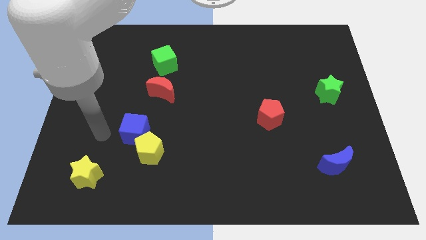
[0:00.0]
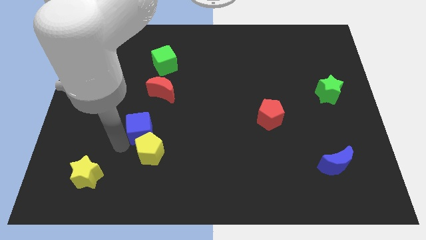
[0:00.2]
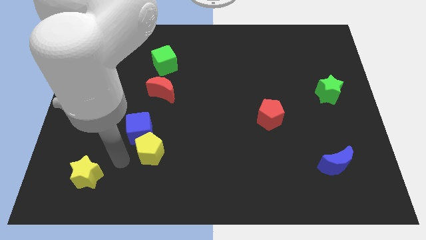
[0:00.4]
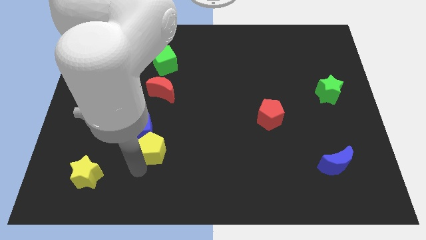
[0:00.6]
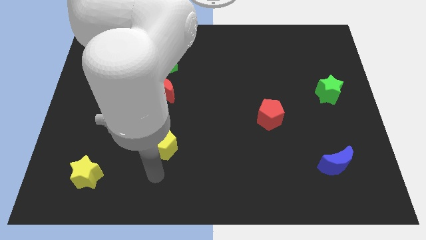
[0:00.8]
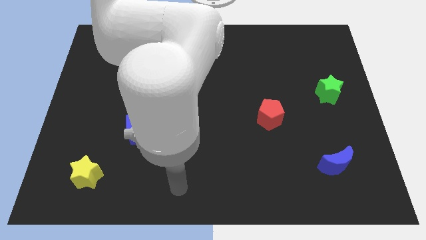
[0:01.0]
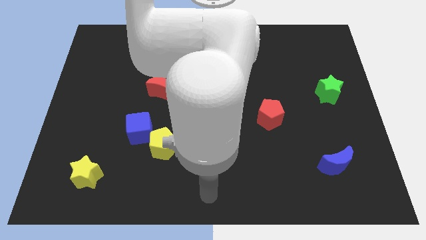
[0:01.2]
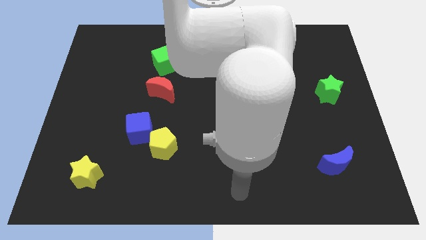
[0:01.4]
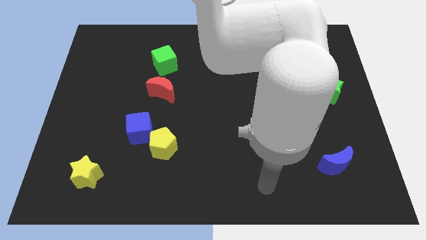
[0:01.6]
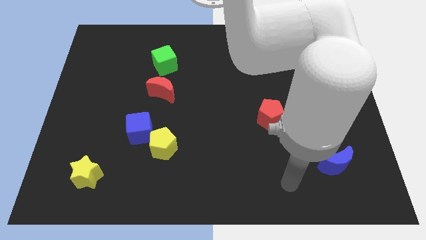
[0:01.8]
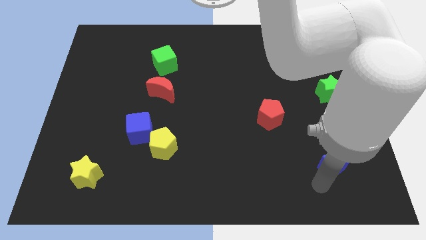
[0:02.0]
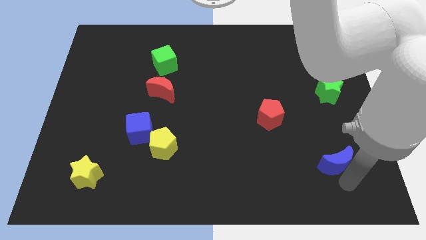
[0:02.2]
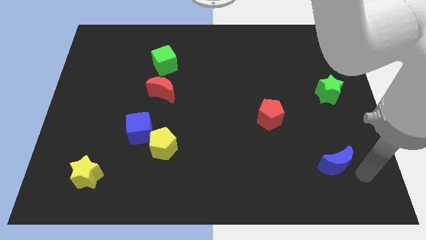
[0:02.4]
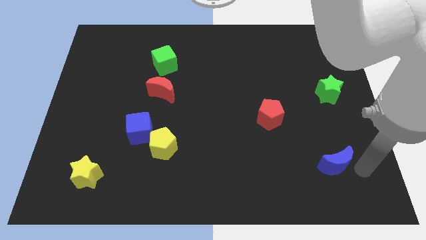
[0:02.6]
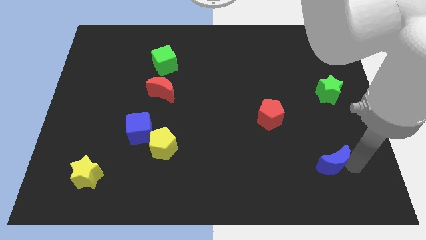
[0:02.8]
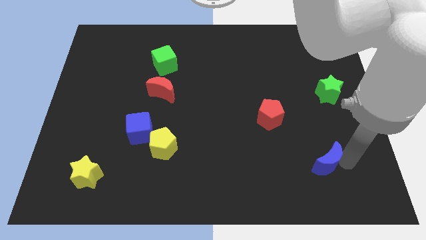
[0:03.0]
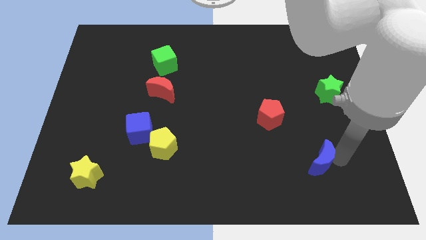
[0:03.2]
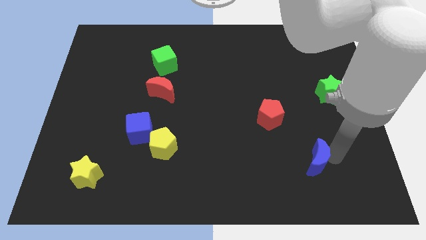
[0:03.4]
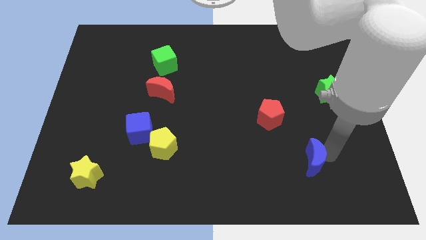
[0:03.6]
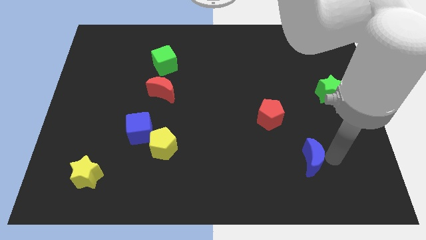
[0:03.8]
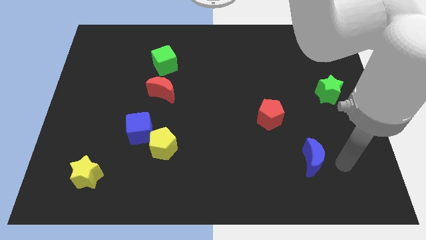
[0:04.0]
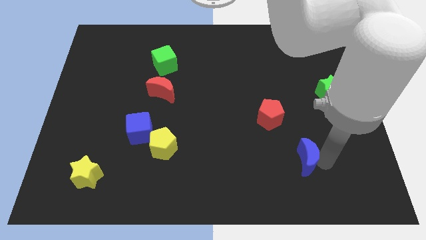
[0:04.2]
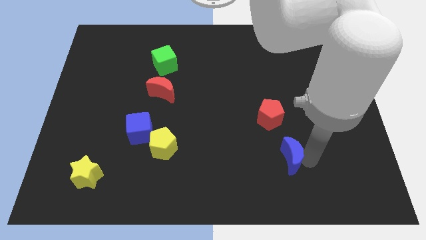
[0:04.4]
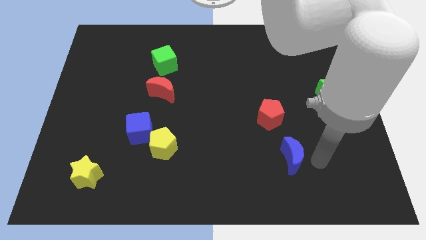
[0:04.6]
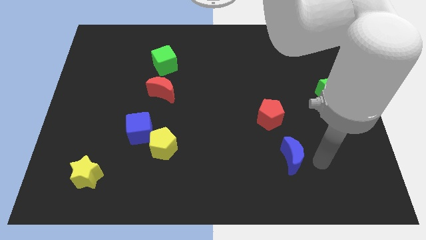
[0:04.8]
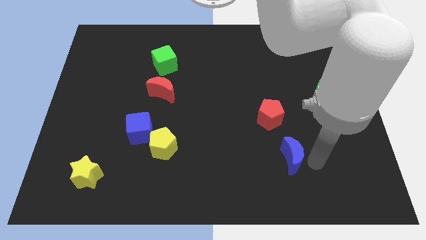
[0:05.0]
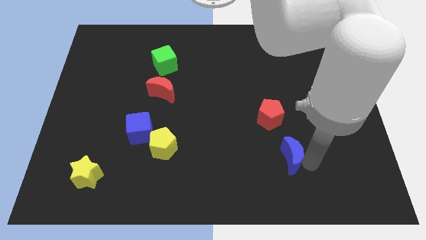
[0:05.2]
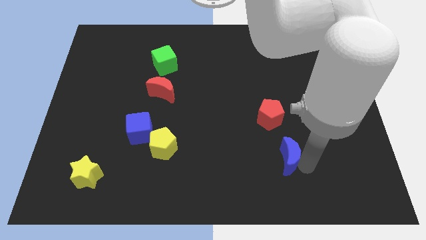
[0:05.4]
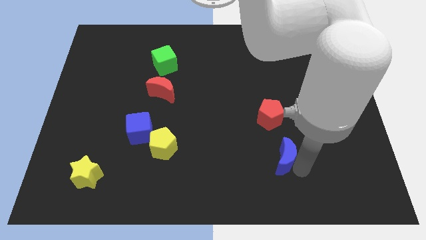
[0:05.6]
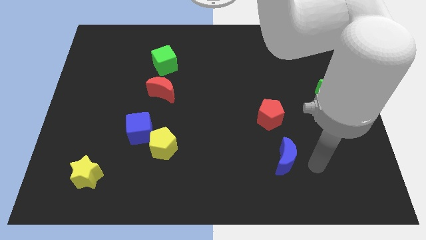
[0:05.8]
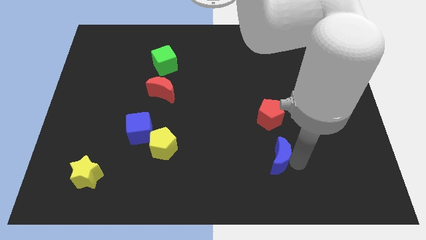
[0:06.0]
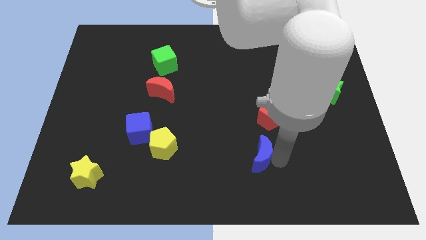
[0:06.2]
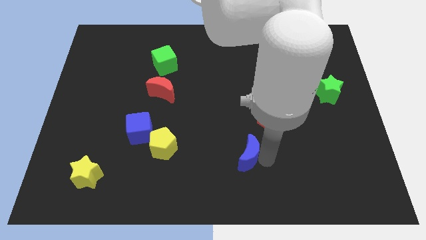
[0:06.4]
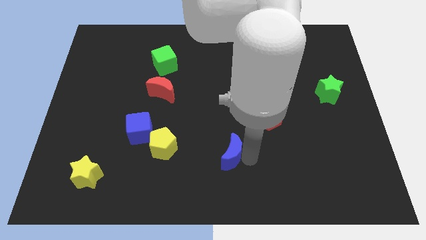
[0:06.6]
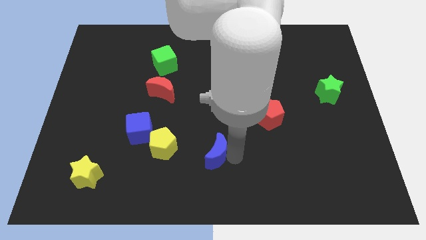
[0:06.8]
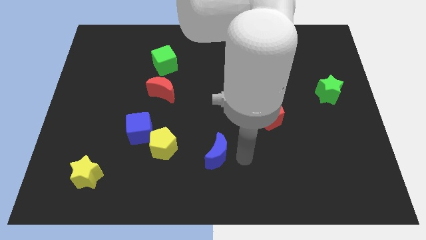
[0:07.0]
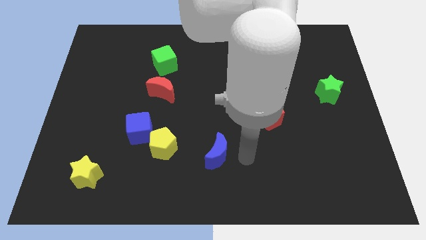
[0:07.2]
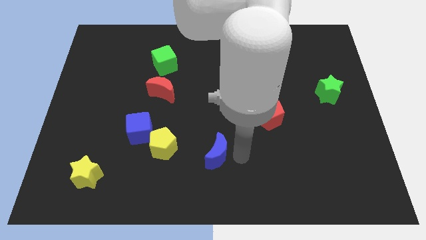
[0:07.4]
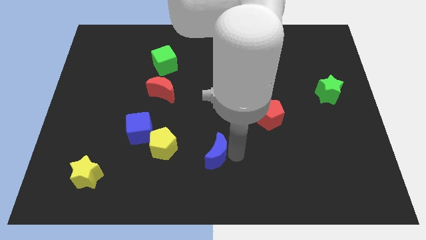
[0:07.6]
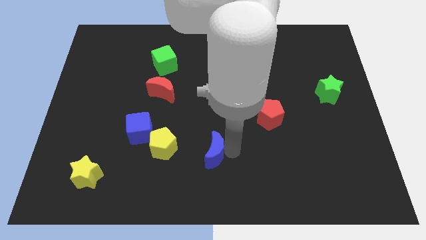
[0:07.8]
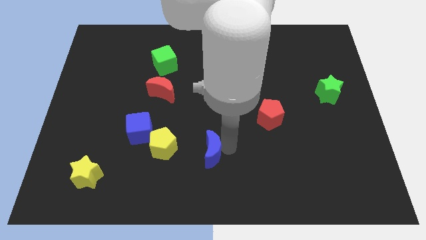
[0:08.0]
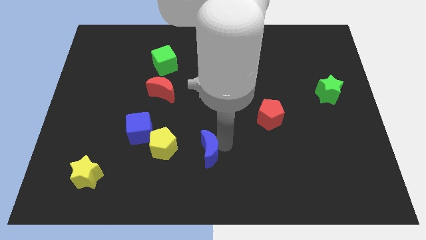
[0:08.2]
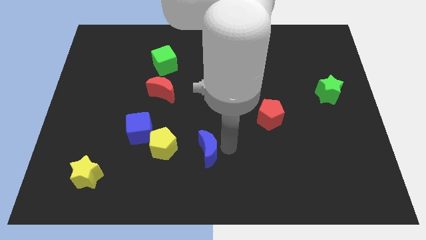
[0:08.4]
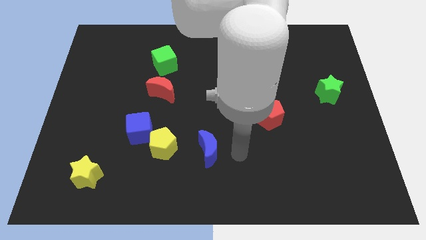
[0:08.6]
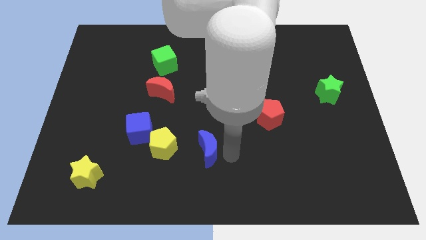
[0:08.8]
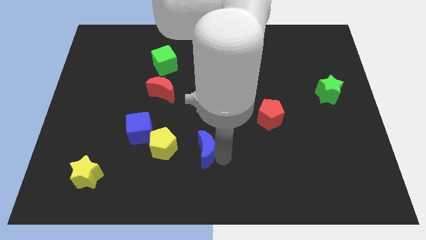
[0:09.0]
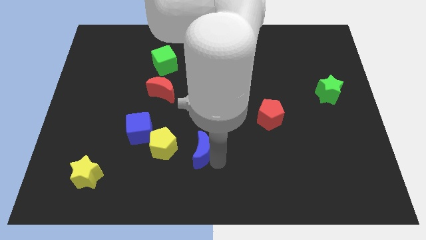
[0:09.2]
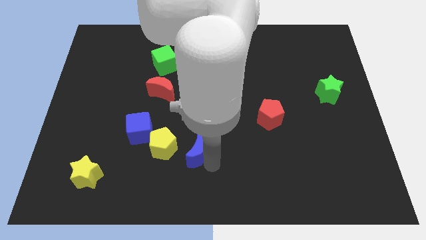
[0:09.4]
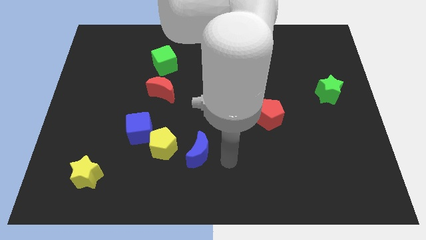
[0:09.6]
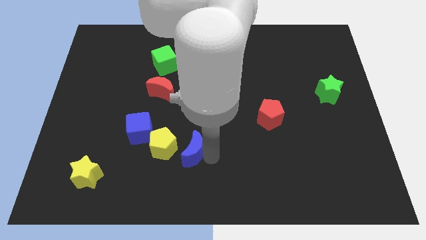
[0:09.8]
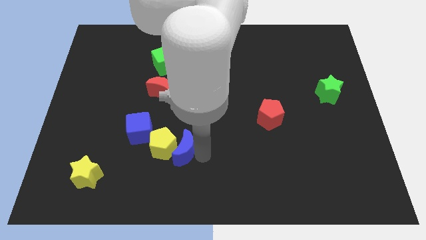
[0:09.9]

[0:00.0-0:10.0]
move the blue moon towards the yellow pentagon

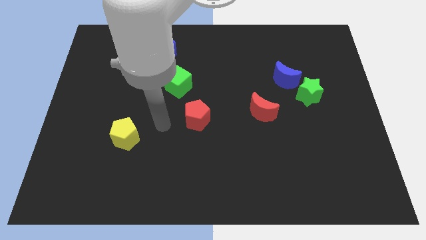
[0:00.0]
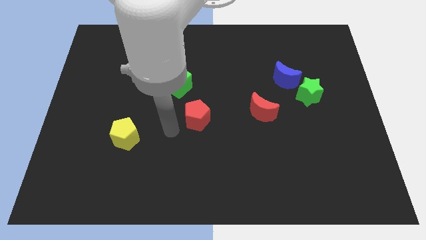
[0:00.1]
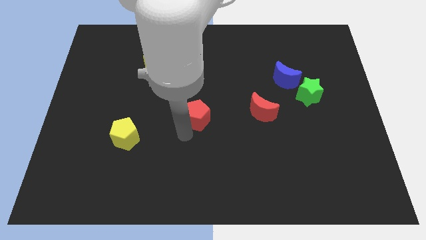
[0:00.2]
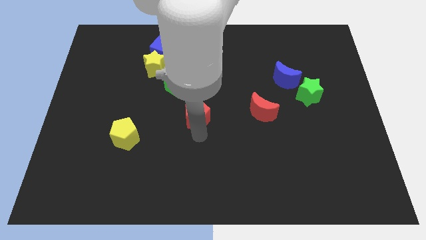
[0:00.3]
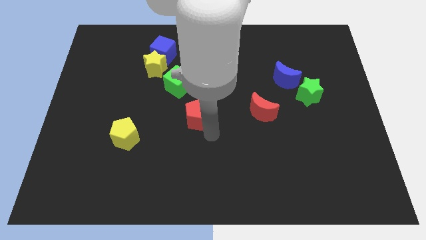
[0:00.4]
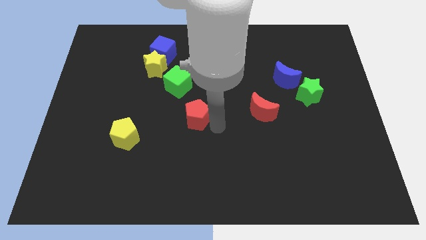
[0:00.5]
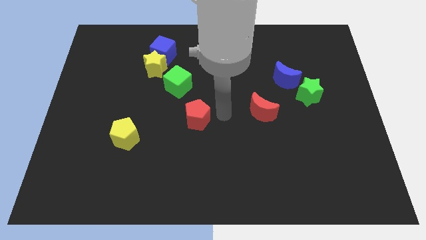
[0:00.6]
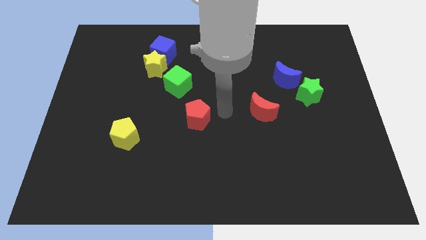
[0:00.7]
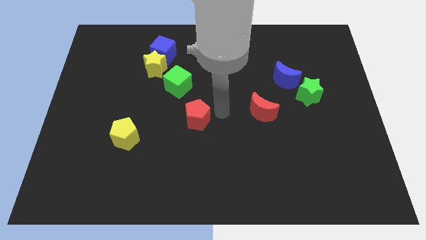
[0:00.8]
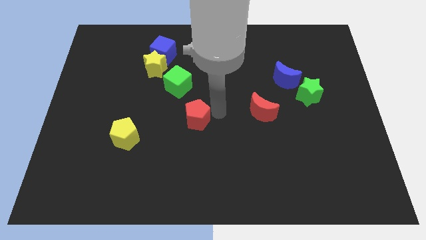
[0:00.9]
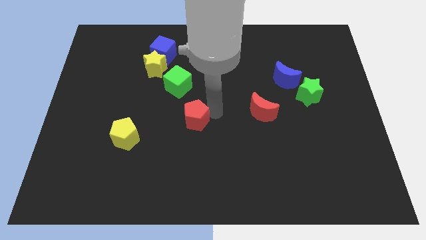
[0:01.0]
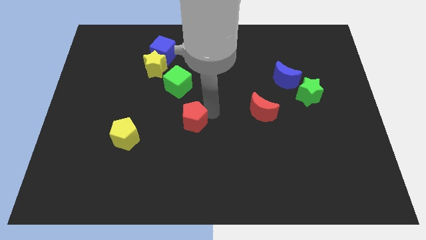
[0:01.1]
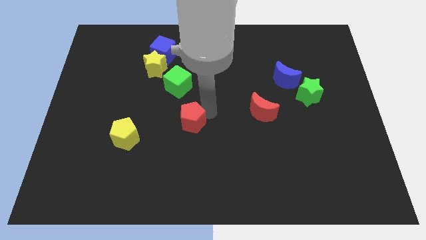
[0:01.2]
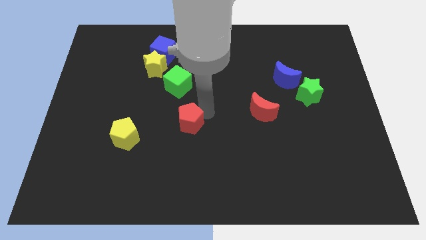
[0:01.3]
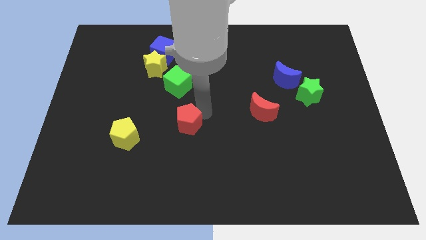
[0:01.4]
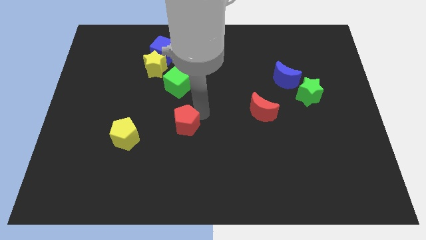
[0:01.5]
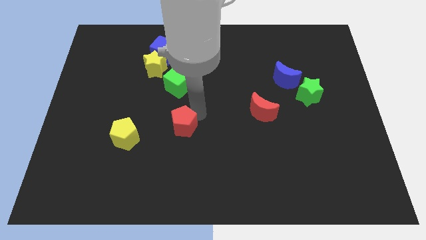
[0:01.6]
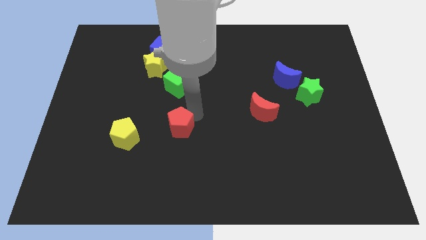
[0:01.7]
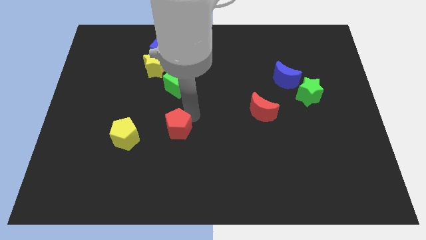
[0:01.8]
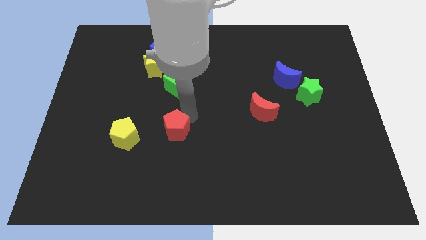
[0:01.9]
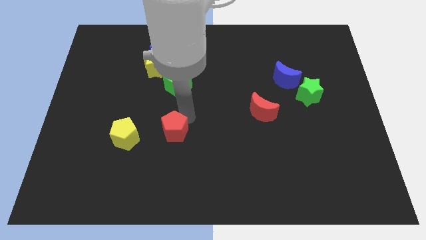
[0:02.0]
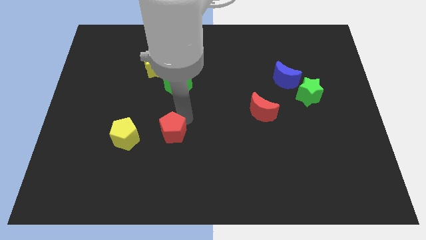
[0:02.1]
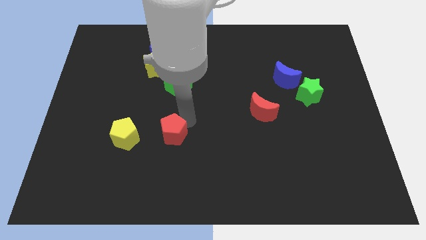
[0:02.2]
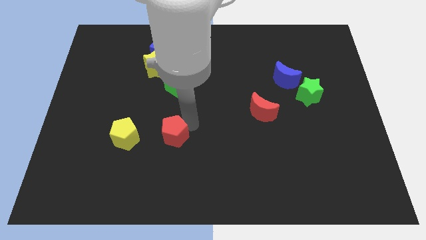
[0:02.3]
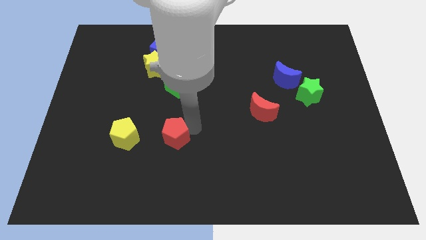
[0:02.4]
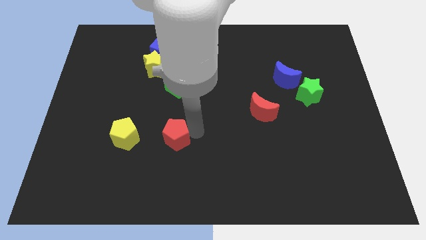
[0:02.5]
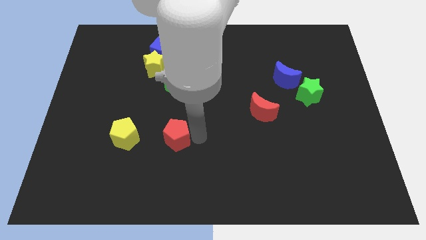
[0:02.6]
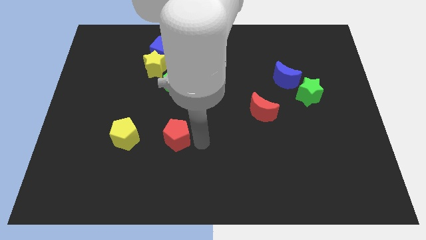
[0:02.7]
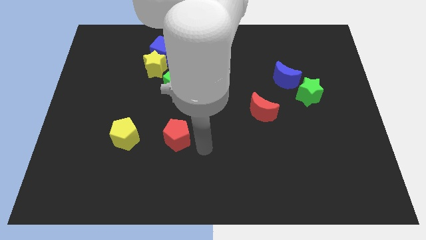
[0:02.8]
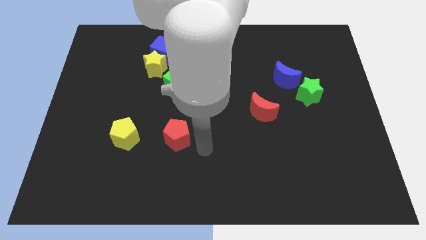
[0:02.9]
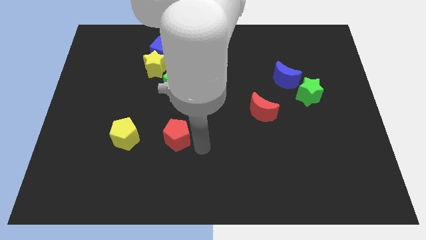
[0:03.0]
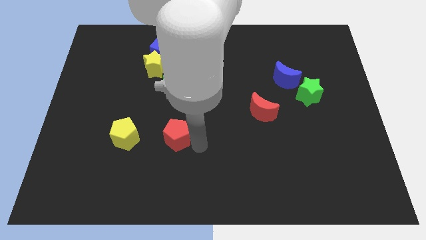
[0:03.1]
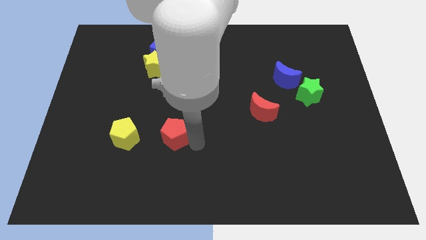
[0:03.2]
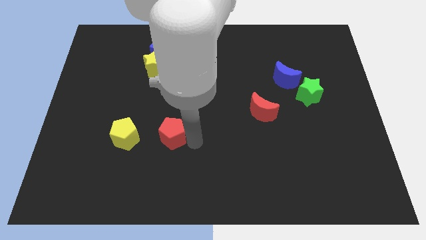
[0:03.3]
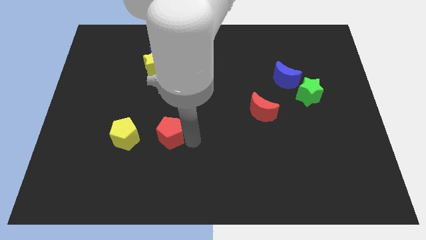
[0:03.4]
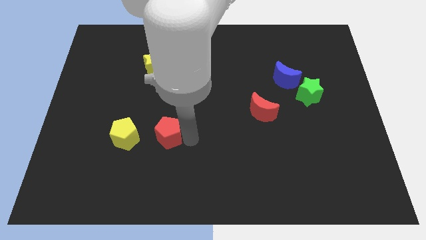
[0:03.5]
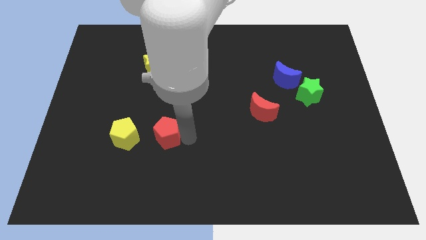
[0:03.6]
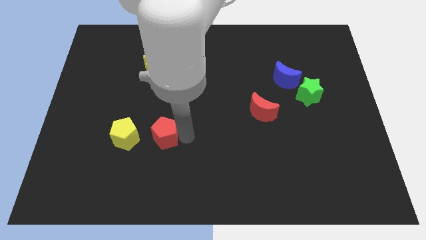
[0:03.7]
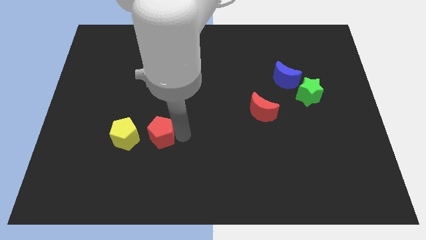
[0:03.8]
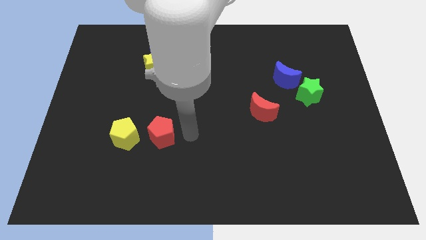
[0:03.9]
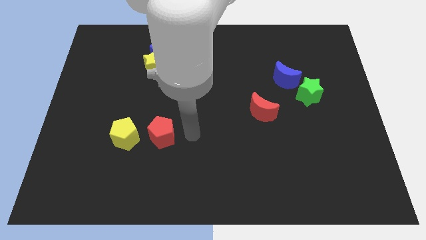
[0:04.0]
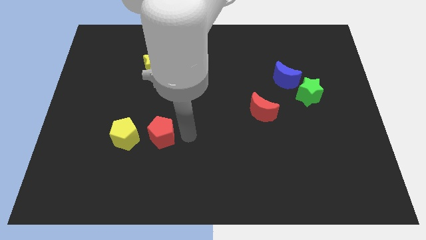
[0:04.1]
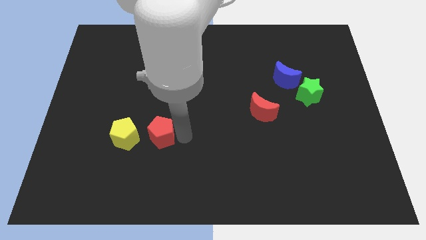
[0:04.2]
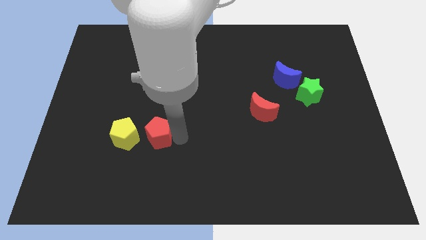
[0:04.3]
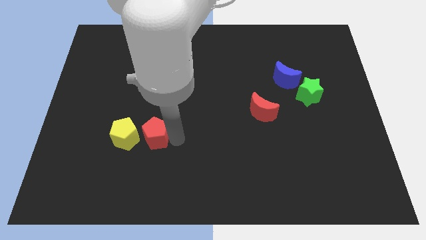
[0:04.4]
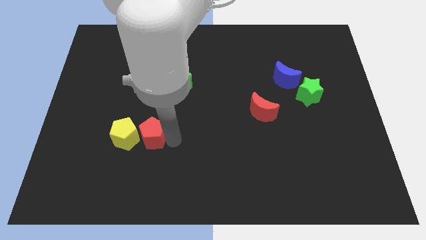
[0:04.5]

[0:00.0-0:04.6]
push the red pentagon towards the yellow pentagon
